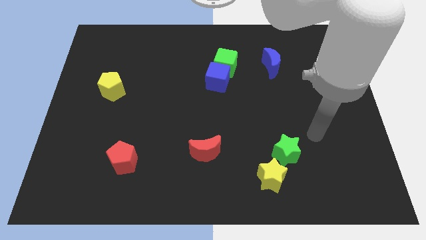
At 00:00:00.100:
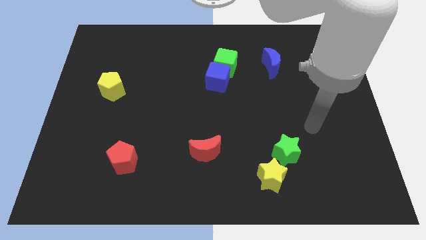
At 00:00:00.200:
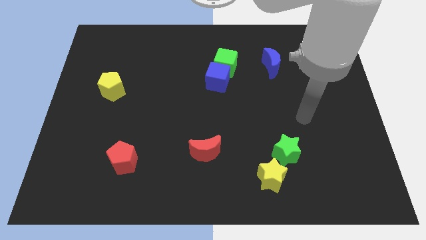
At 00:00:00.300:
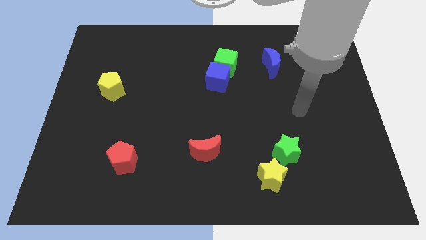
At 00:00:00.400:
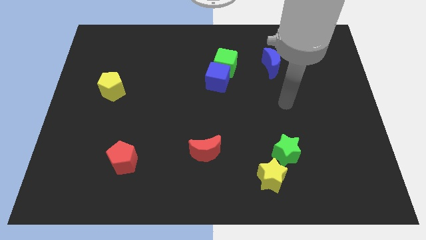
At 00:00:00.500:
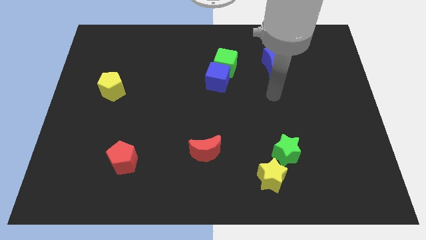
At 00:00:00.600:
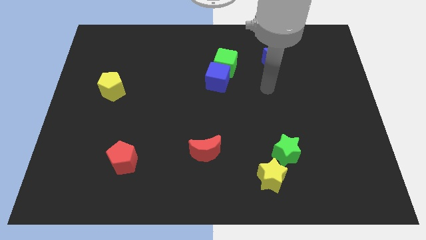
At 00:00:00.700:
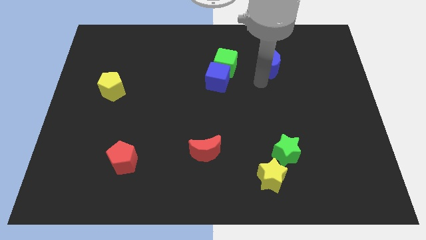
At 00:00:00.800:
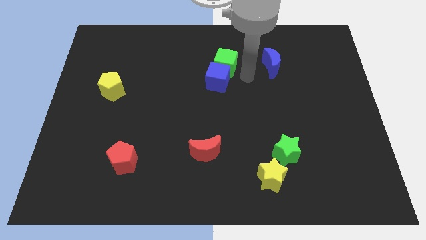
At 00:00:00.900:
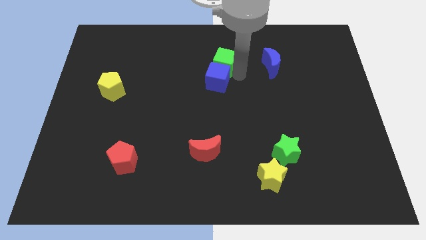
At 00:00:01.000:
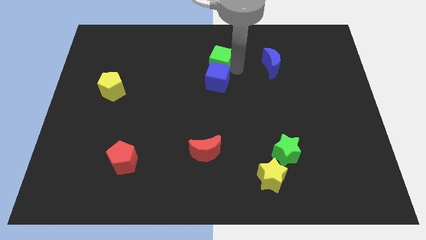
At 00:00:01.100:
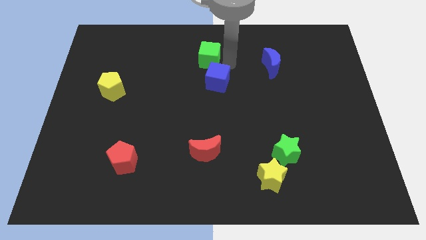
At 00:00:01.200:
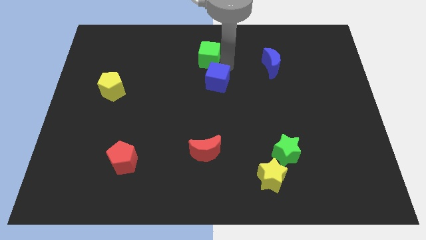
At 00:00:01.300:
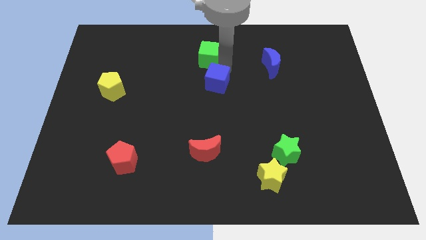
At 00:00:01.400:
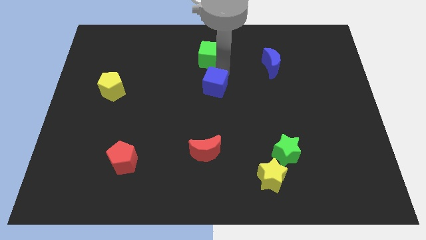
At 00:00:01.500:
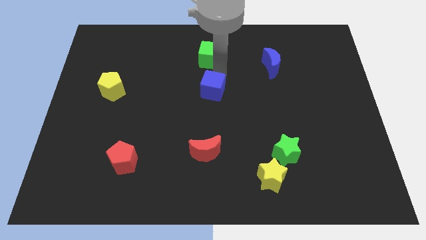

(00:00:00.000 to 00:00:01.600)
separate the blue cube from the green cube

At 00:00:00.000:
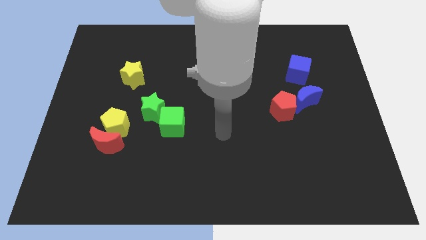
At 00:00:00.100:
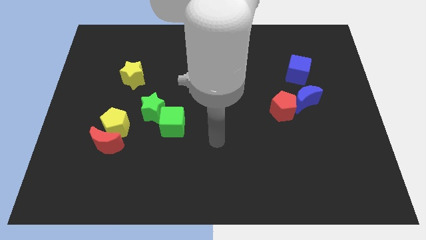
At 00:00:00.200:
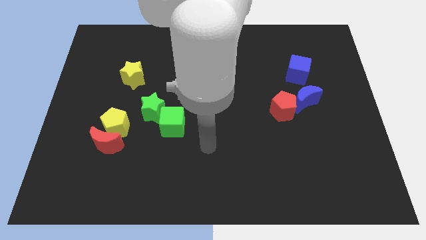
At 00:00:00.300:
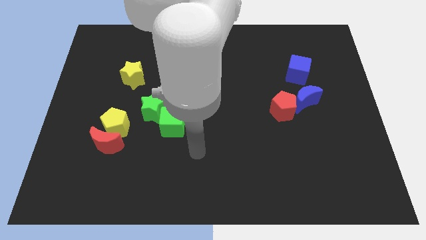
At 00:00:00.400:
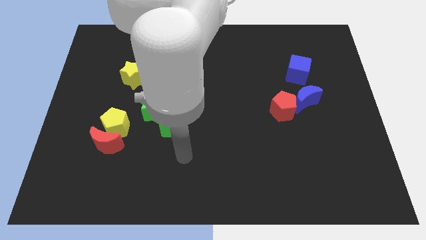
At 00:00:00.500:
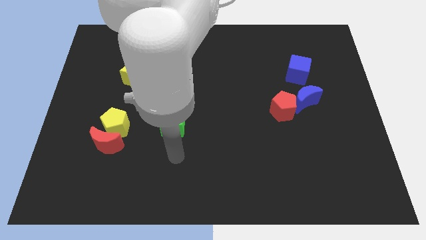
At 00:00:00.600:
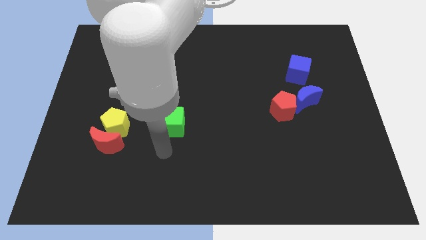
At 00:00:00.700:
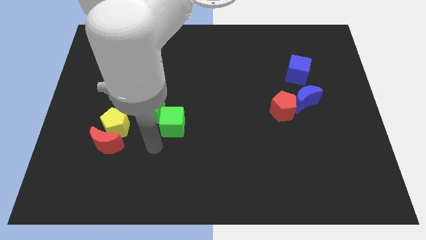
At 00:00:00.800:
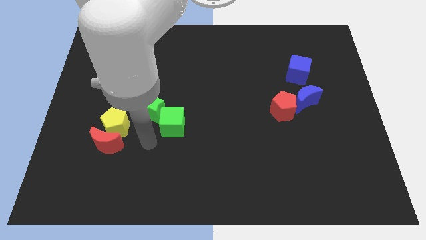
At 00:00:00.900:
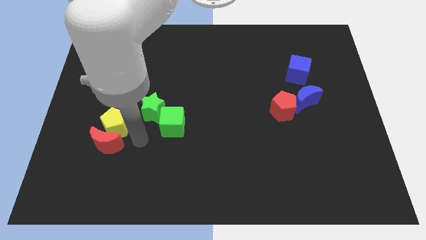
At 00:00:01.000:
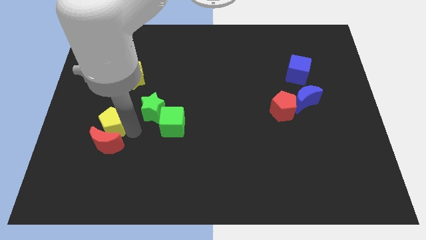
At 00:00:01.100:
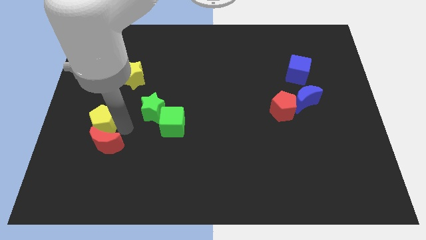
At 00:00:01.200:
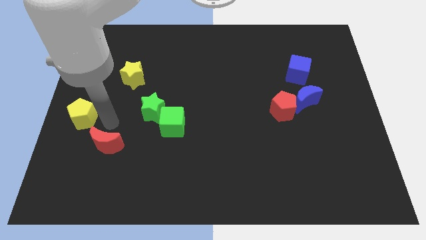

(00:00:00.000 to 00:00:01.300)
move the red moon away from the yellow pentagon

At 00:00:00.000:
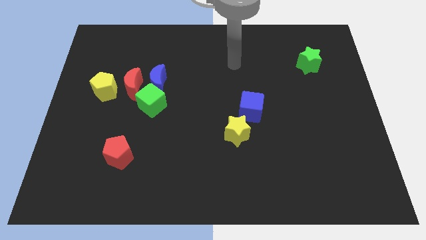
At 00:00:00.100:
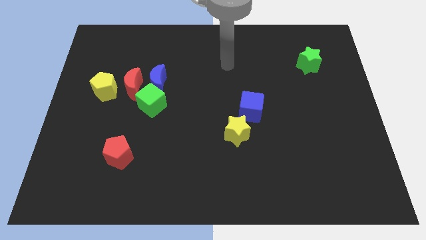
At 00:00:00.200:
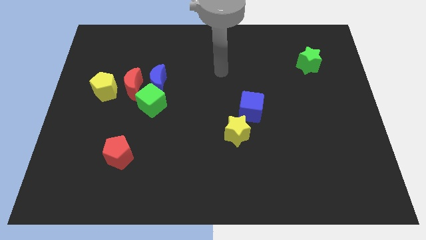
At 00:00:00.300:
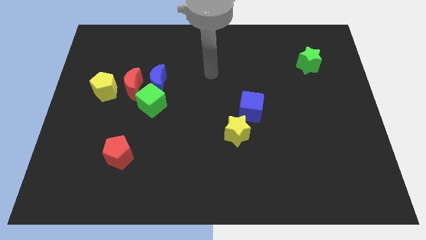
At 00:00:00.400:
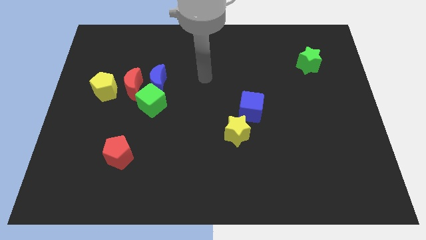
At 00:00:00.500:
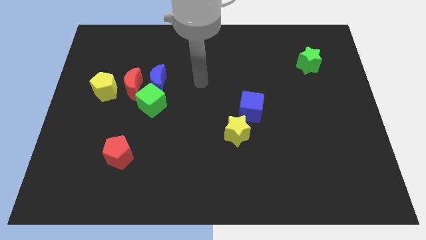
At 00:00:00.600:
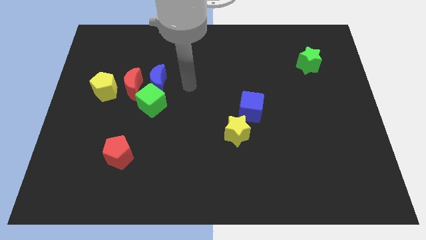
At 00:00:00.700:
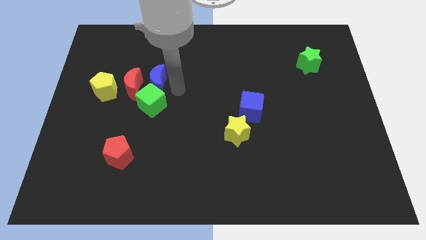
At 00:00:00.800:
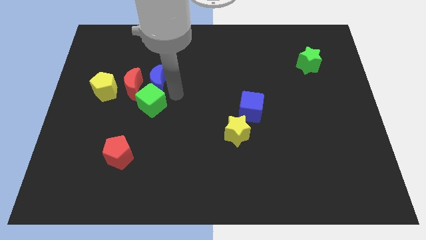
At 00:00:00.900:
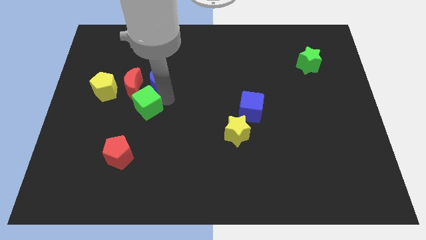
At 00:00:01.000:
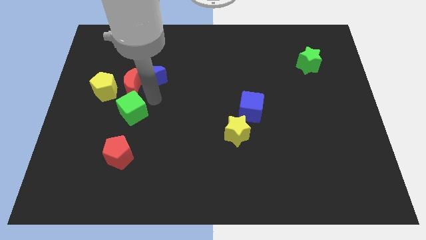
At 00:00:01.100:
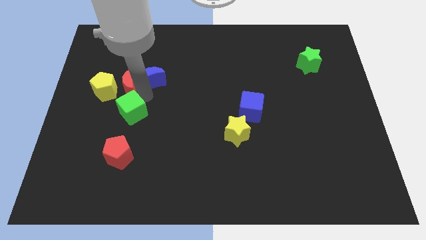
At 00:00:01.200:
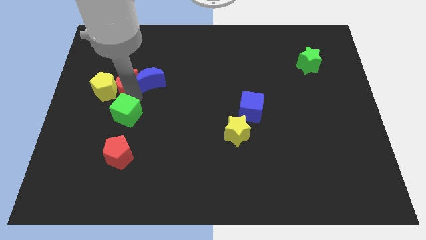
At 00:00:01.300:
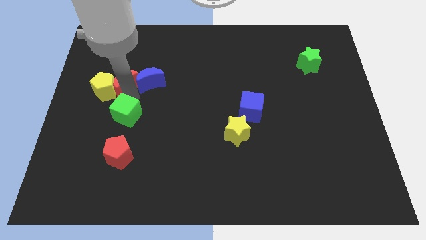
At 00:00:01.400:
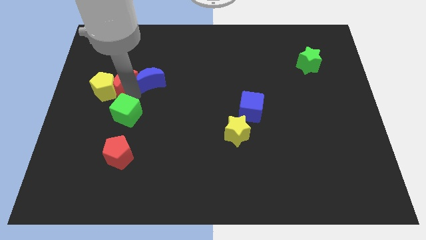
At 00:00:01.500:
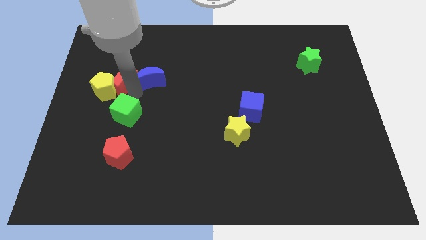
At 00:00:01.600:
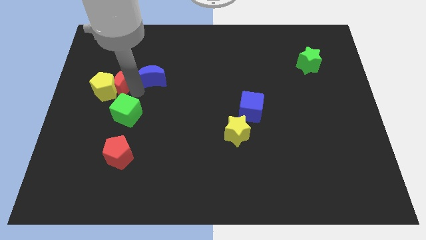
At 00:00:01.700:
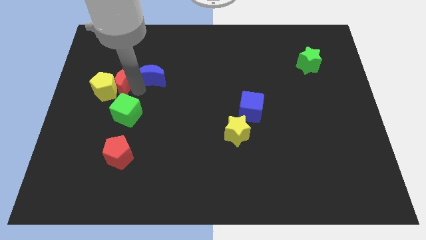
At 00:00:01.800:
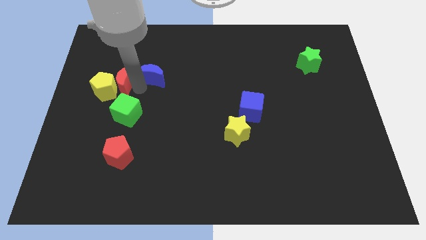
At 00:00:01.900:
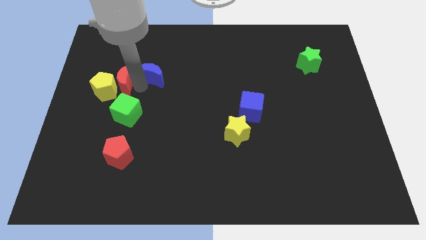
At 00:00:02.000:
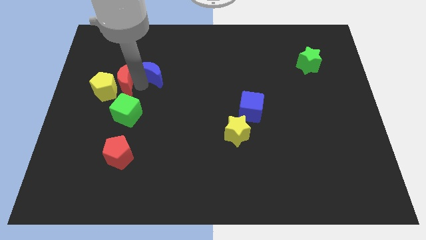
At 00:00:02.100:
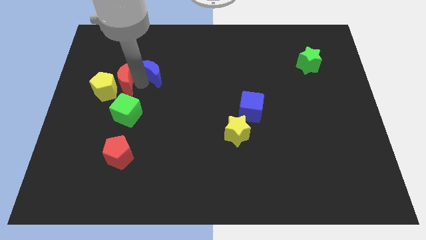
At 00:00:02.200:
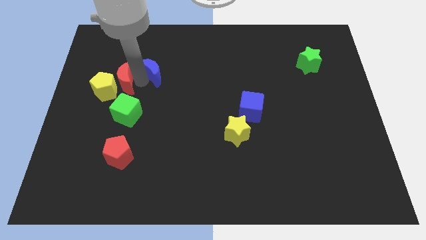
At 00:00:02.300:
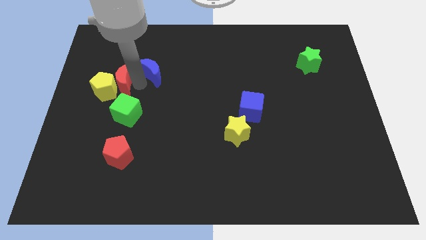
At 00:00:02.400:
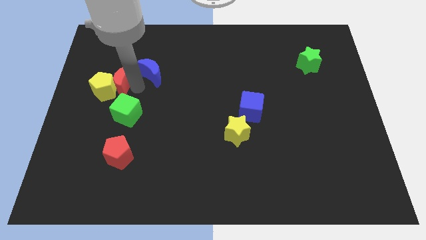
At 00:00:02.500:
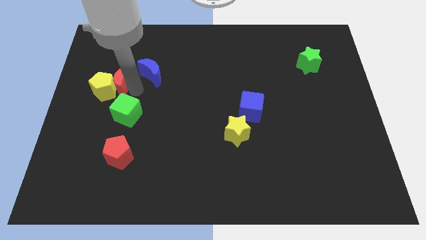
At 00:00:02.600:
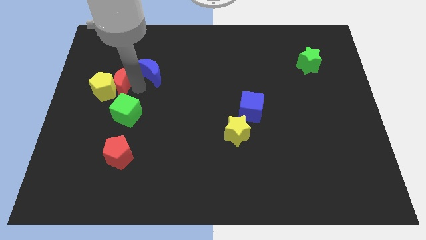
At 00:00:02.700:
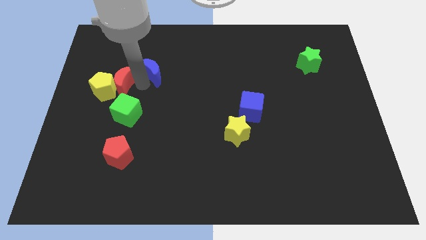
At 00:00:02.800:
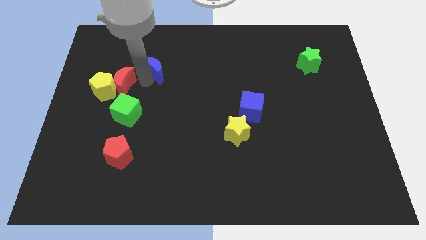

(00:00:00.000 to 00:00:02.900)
separate the blue moon from the red moon and green cube

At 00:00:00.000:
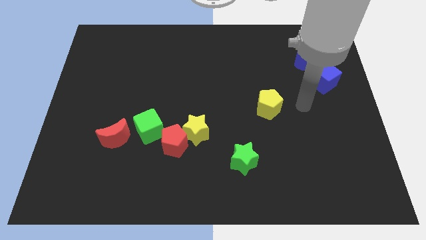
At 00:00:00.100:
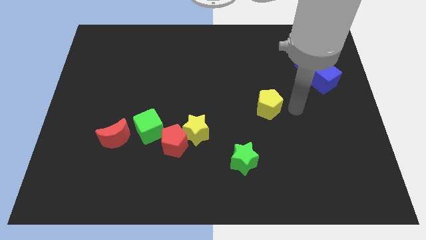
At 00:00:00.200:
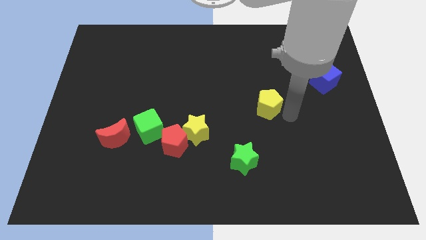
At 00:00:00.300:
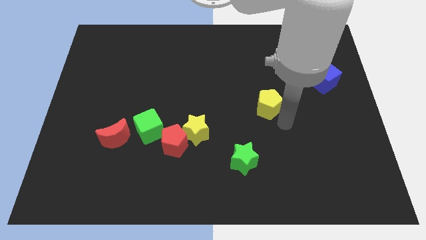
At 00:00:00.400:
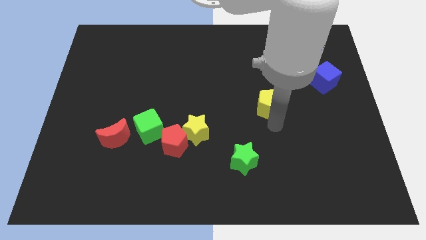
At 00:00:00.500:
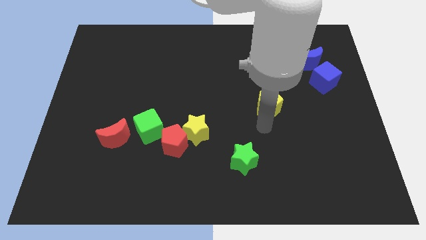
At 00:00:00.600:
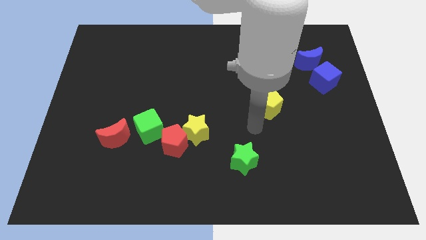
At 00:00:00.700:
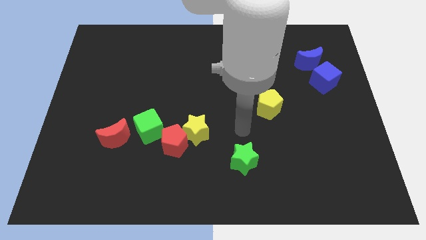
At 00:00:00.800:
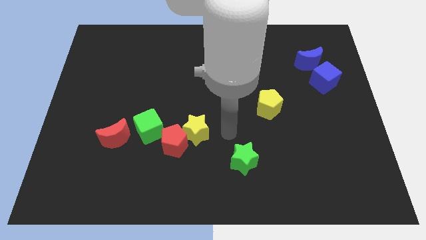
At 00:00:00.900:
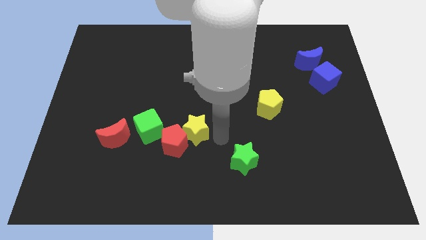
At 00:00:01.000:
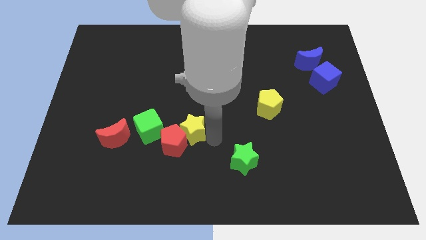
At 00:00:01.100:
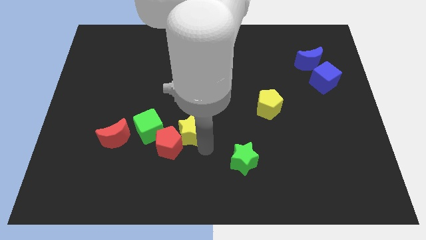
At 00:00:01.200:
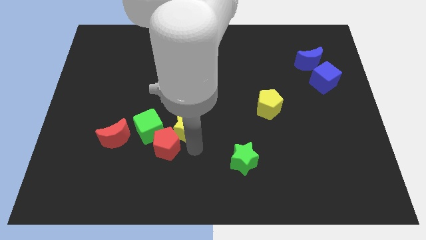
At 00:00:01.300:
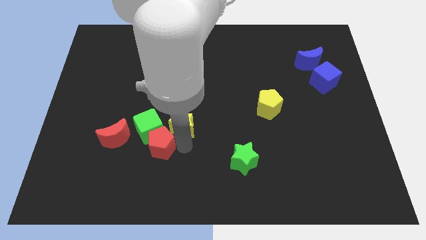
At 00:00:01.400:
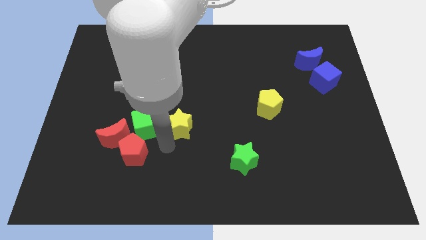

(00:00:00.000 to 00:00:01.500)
move the yellow star away from the red pentagon

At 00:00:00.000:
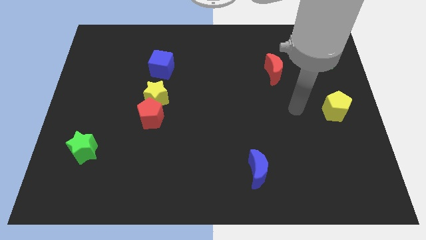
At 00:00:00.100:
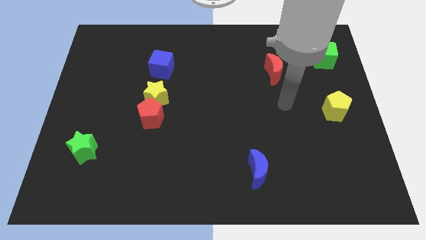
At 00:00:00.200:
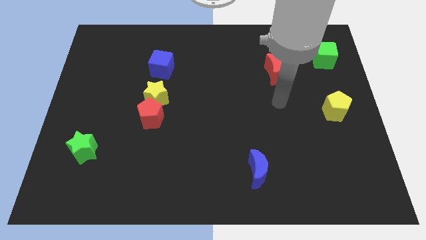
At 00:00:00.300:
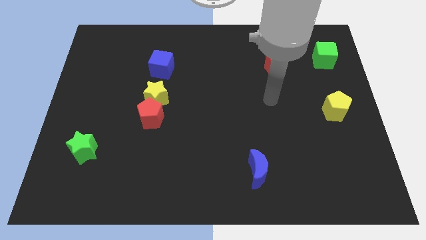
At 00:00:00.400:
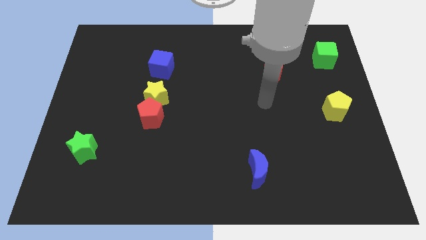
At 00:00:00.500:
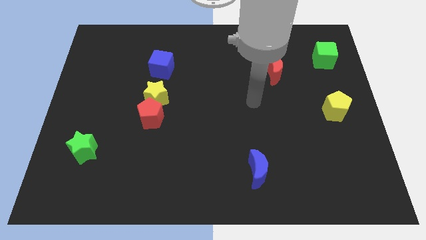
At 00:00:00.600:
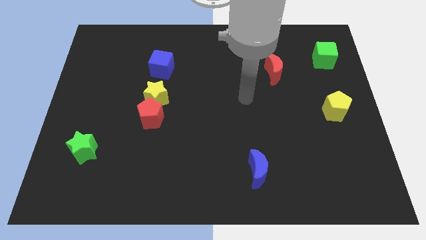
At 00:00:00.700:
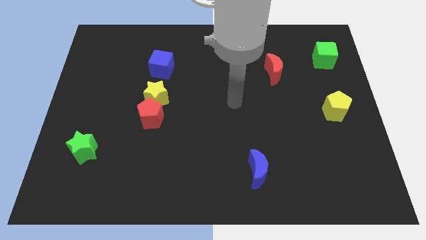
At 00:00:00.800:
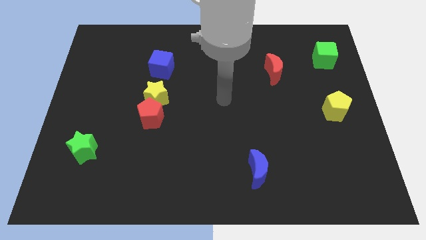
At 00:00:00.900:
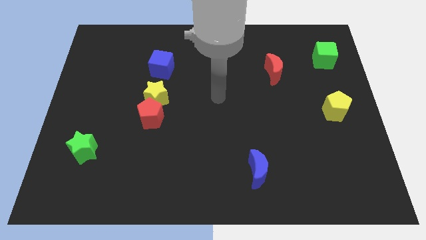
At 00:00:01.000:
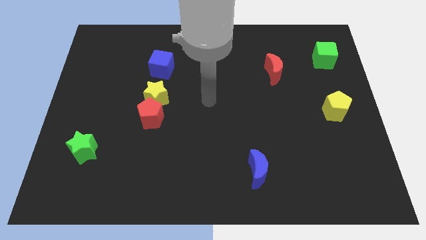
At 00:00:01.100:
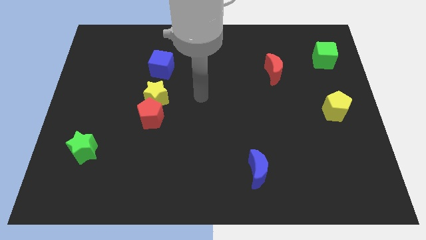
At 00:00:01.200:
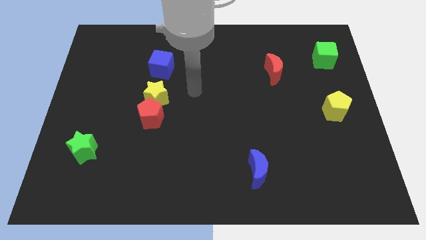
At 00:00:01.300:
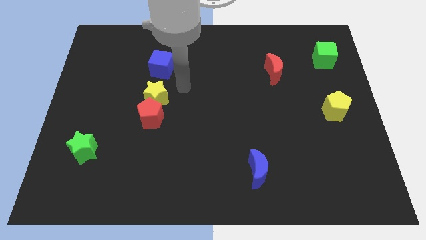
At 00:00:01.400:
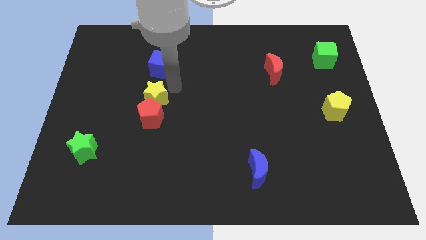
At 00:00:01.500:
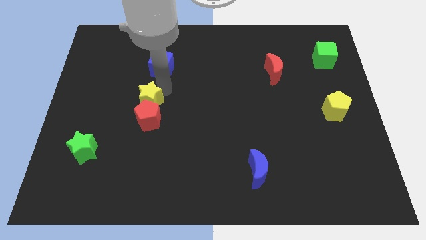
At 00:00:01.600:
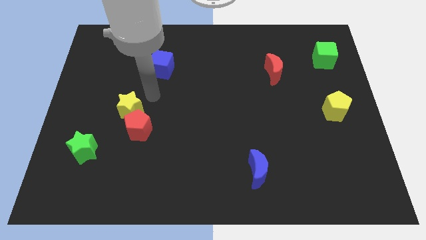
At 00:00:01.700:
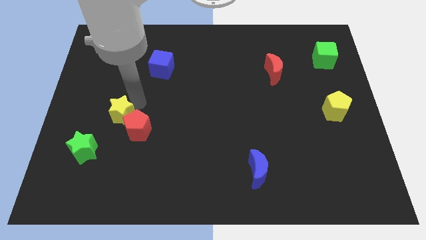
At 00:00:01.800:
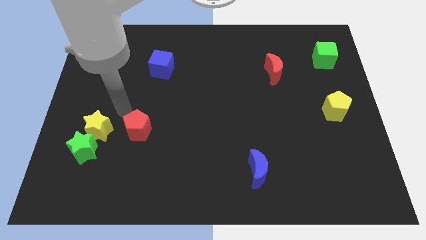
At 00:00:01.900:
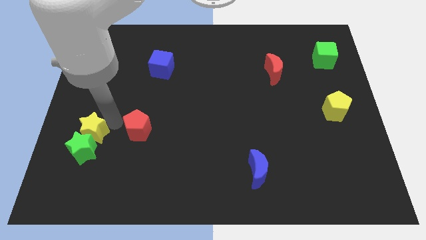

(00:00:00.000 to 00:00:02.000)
pull the red pentagon apart from the yellow star
